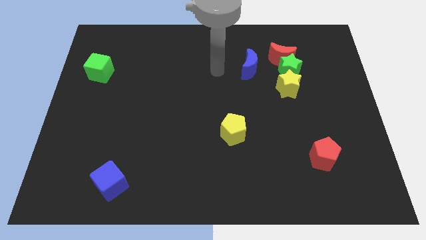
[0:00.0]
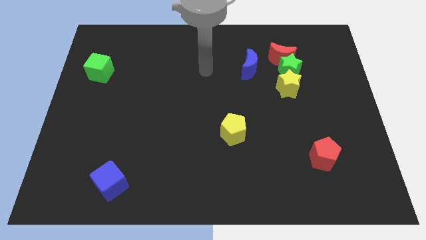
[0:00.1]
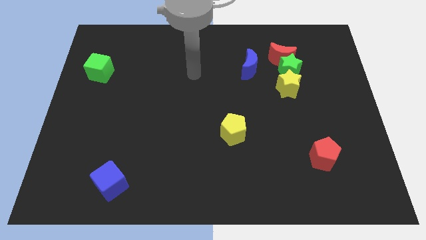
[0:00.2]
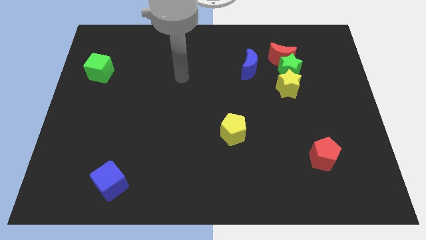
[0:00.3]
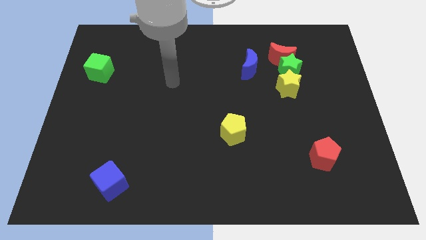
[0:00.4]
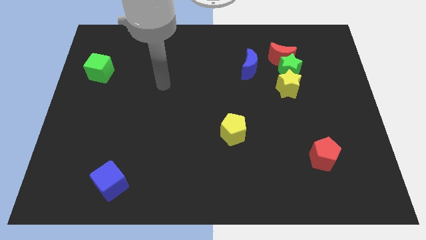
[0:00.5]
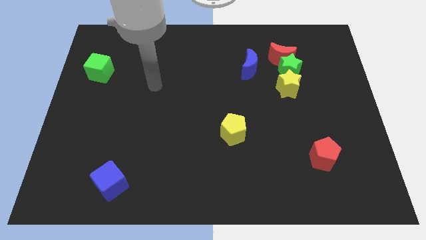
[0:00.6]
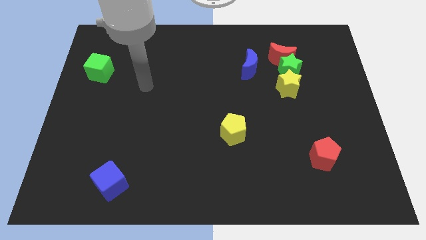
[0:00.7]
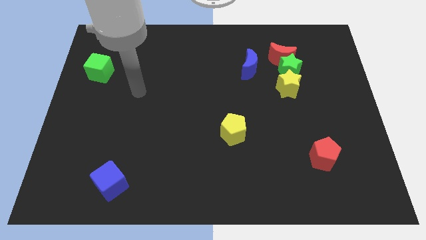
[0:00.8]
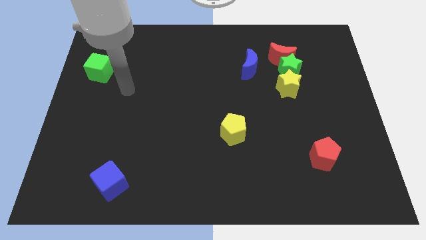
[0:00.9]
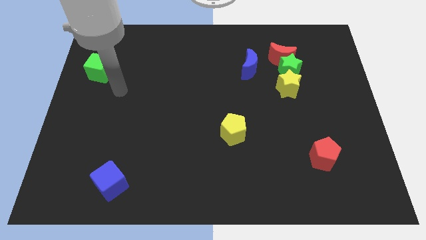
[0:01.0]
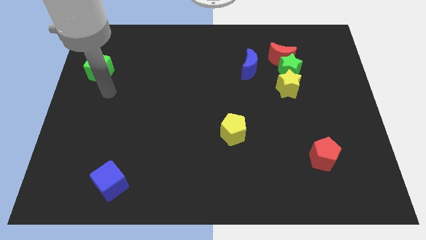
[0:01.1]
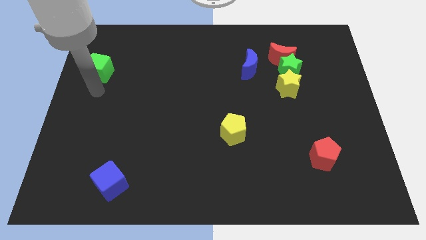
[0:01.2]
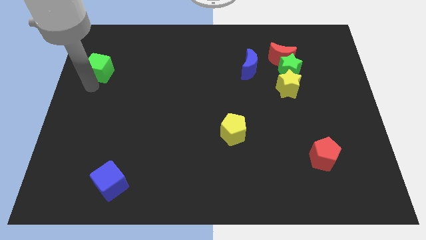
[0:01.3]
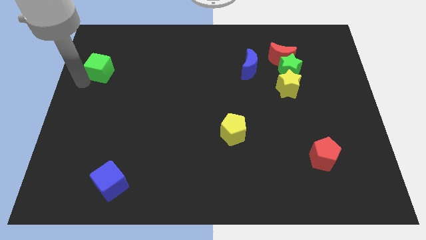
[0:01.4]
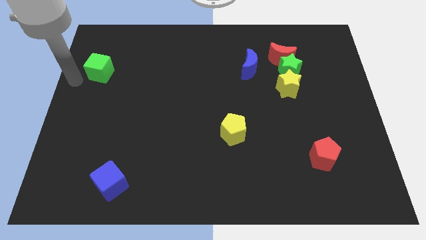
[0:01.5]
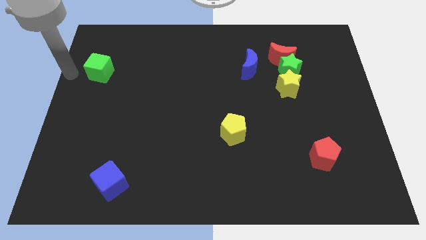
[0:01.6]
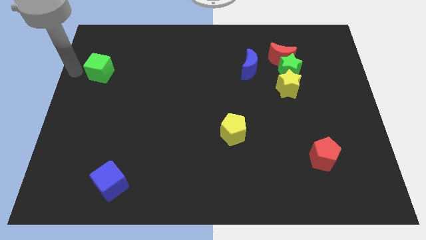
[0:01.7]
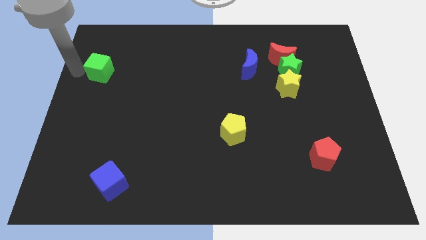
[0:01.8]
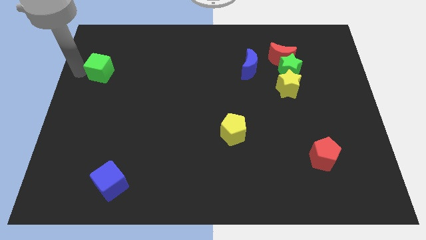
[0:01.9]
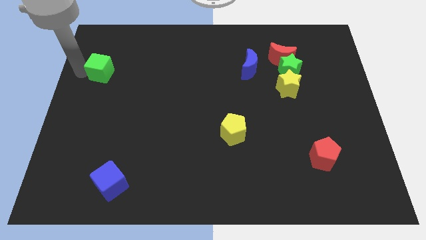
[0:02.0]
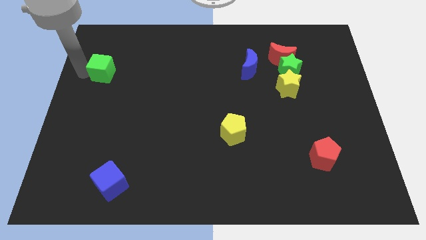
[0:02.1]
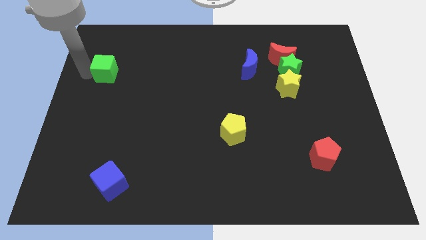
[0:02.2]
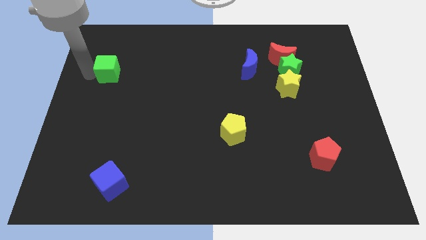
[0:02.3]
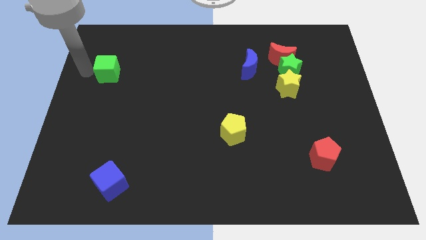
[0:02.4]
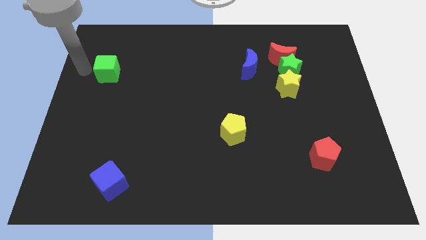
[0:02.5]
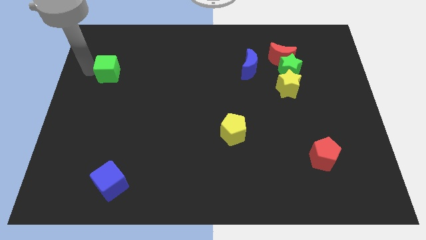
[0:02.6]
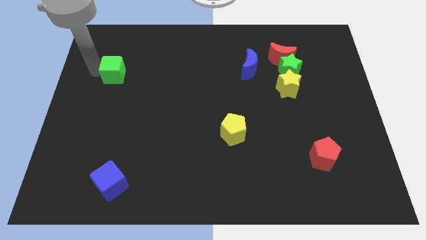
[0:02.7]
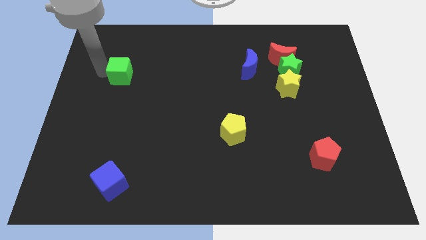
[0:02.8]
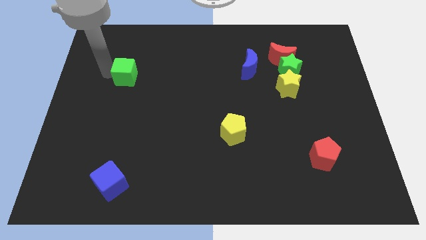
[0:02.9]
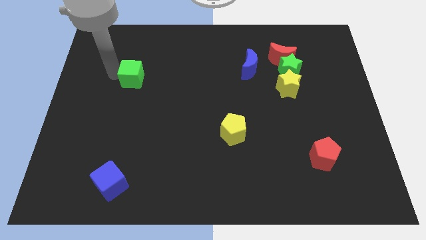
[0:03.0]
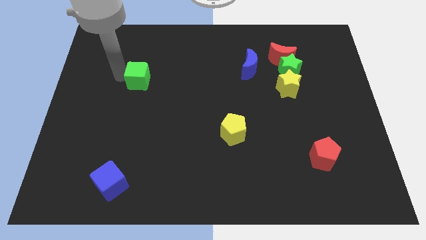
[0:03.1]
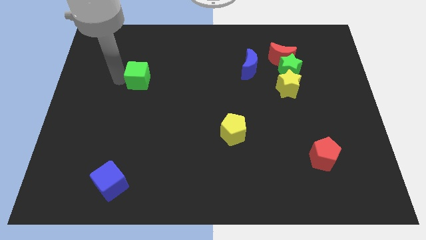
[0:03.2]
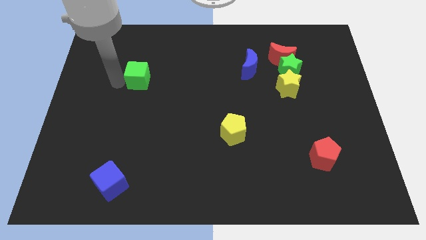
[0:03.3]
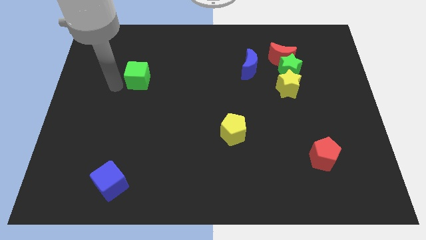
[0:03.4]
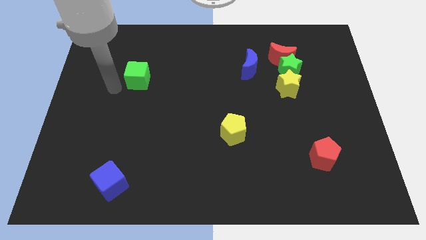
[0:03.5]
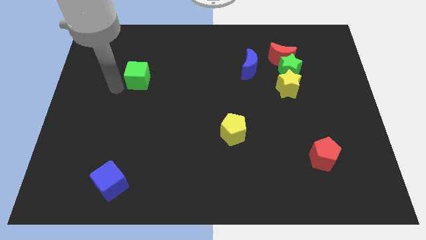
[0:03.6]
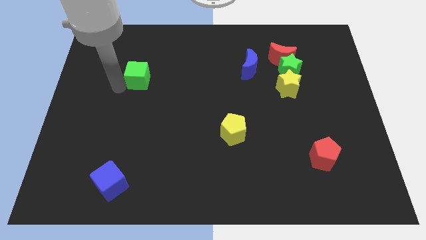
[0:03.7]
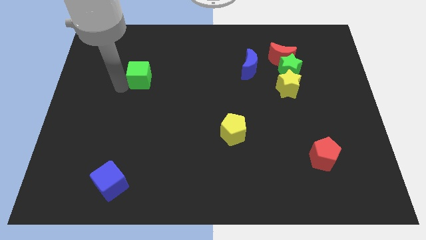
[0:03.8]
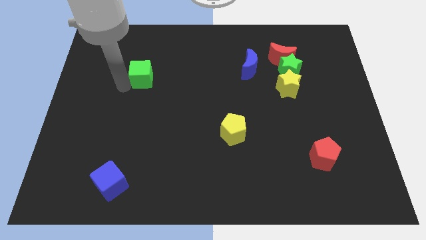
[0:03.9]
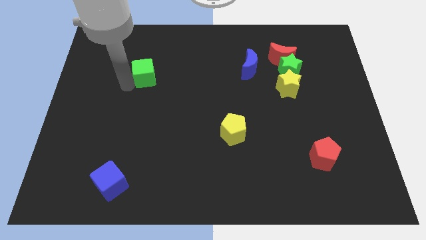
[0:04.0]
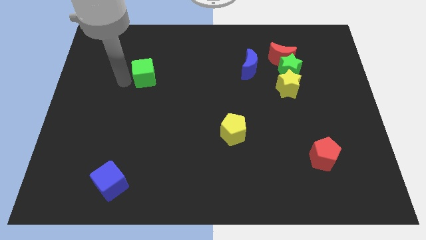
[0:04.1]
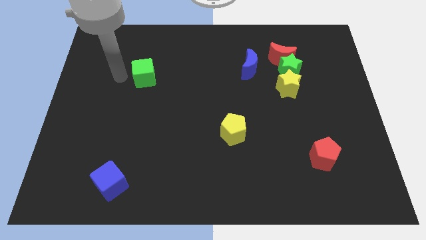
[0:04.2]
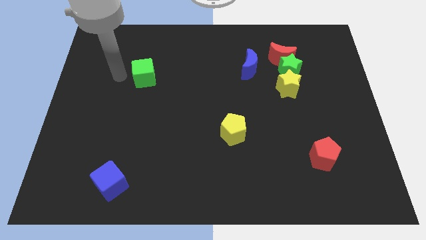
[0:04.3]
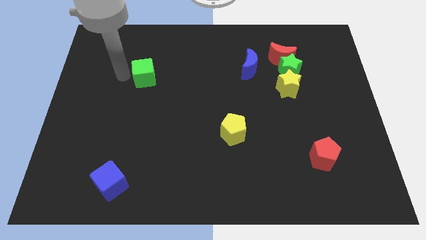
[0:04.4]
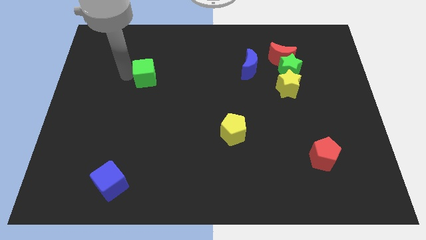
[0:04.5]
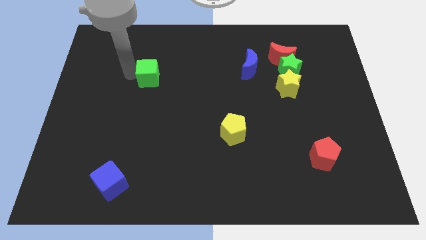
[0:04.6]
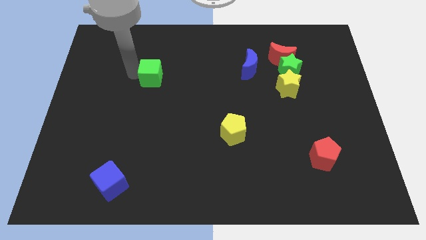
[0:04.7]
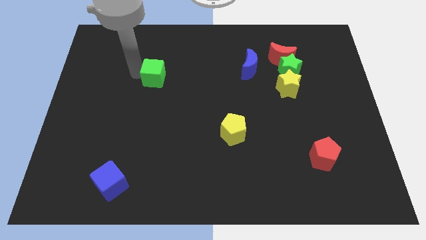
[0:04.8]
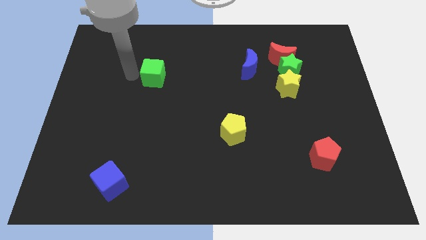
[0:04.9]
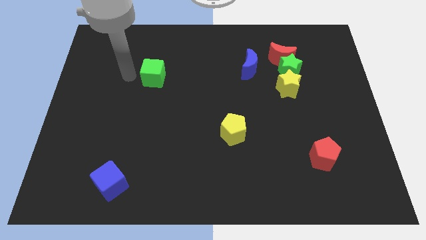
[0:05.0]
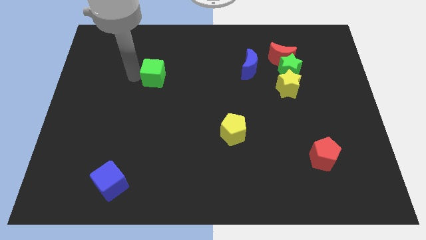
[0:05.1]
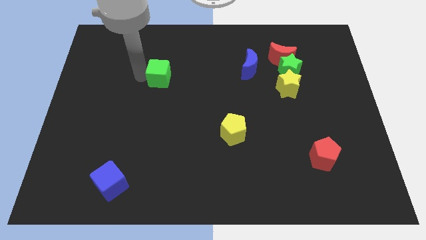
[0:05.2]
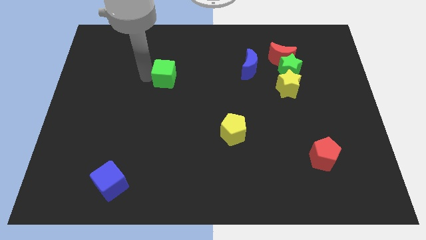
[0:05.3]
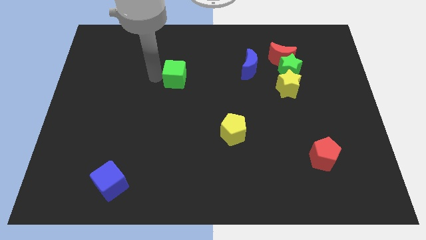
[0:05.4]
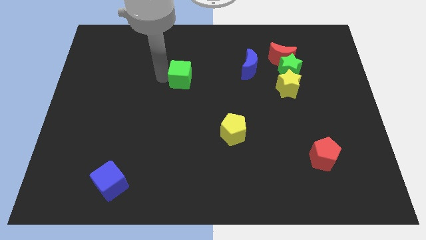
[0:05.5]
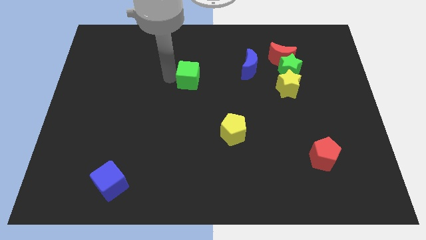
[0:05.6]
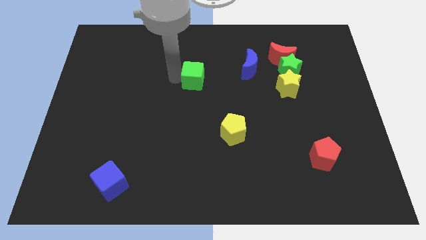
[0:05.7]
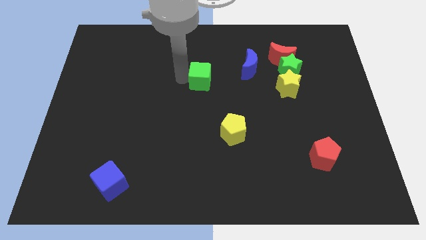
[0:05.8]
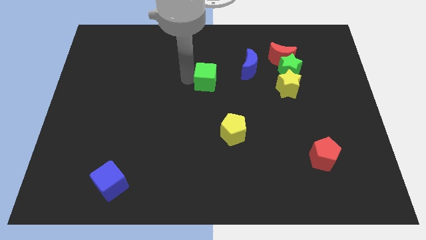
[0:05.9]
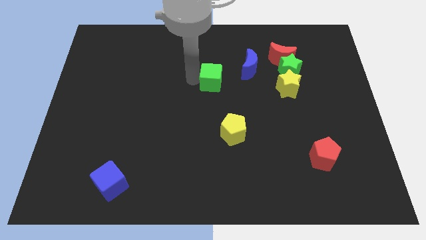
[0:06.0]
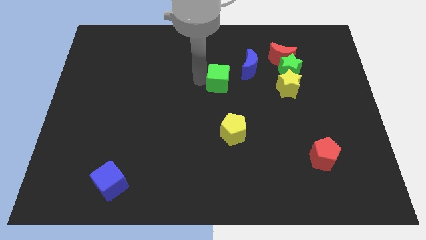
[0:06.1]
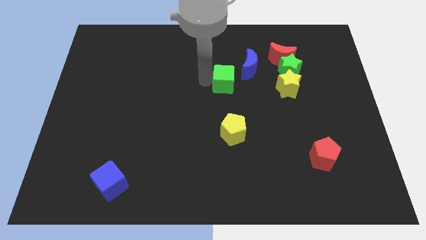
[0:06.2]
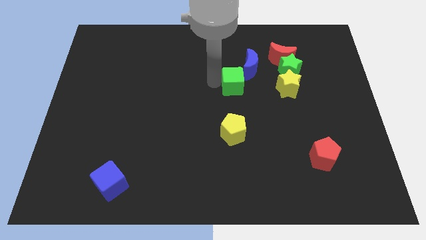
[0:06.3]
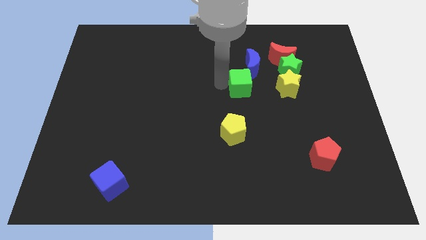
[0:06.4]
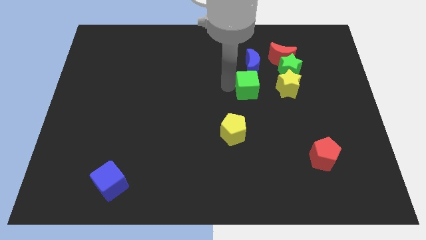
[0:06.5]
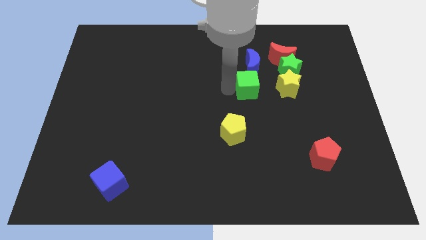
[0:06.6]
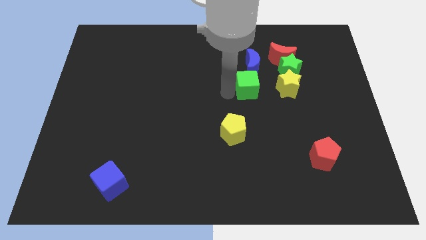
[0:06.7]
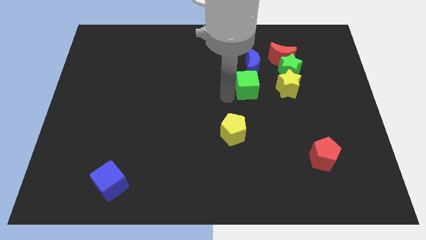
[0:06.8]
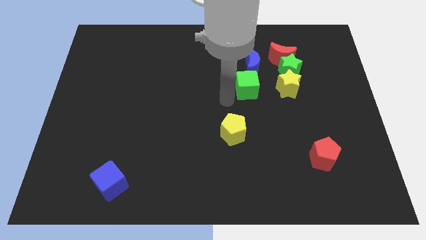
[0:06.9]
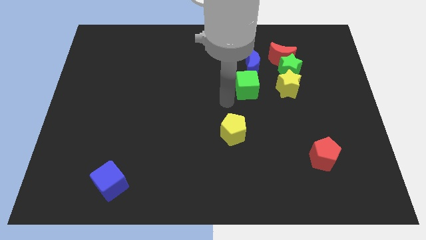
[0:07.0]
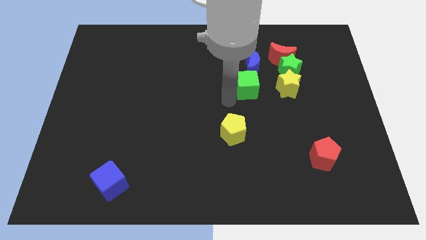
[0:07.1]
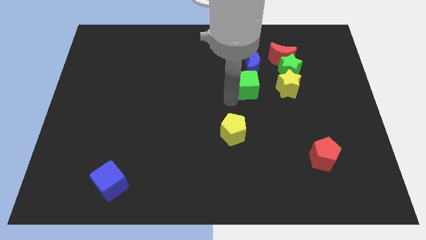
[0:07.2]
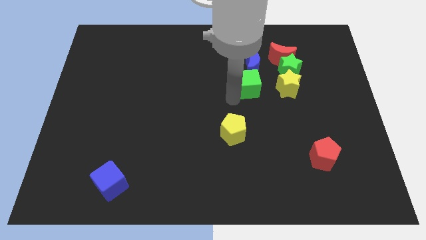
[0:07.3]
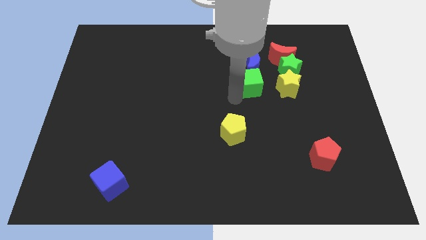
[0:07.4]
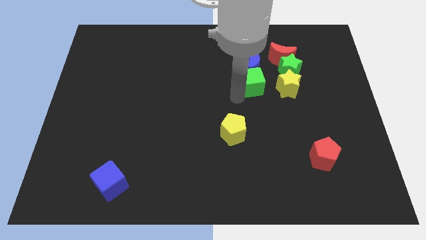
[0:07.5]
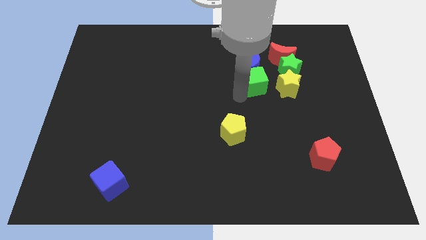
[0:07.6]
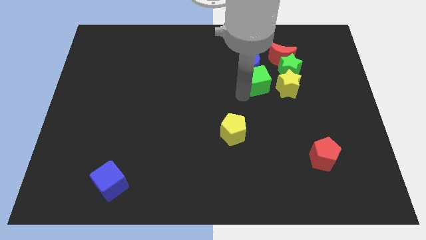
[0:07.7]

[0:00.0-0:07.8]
put the green cube to the top left of the yellow star
